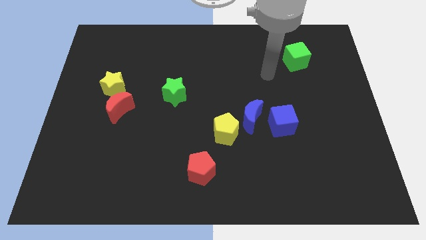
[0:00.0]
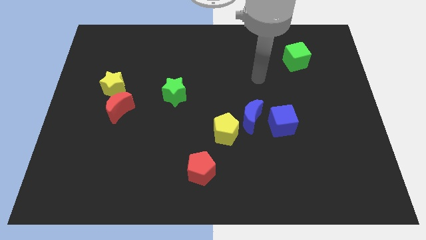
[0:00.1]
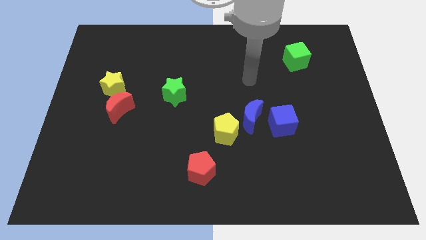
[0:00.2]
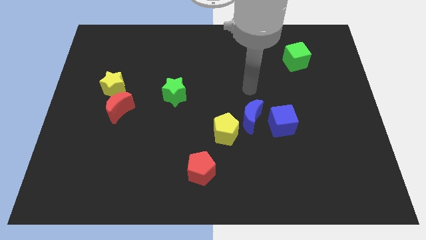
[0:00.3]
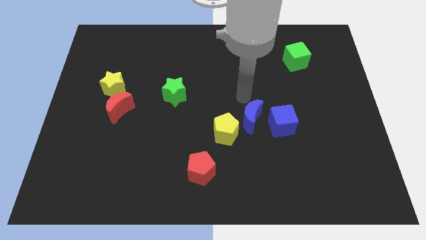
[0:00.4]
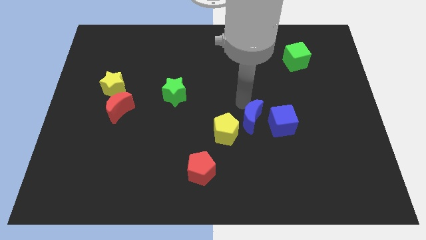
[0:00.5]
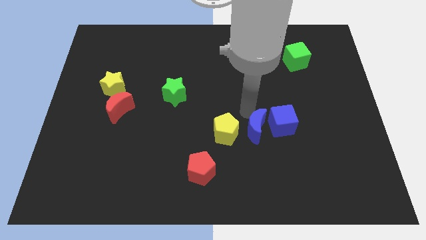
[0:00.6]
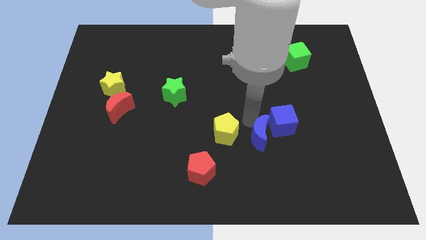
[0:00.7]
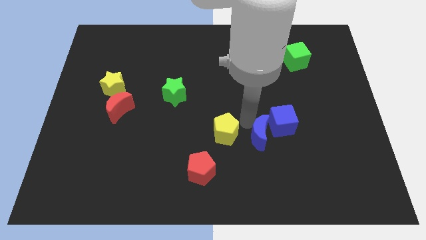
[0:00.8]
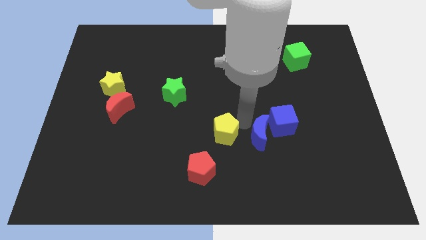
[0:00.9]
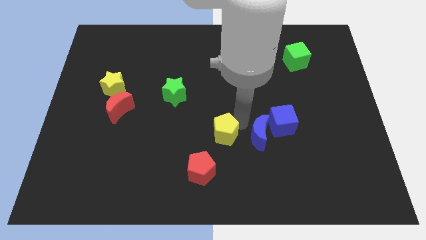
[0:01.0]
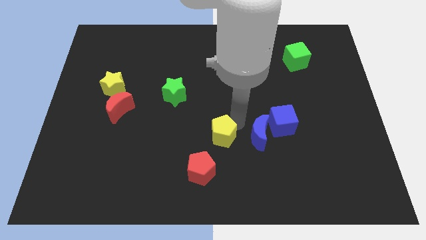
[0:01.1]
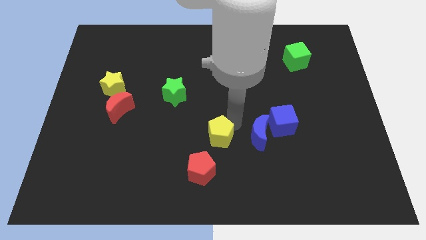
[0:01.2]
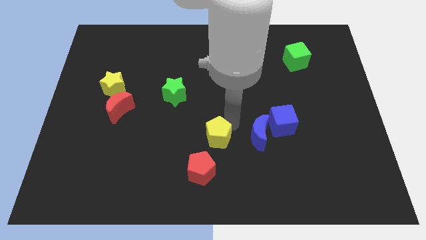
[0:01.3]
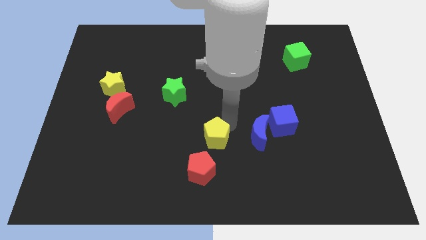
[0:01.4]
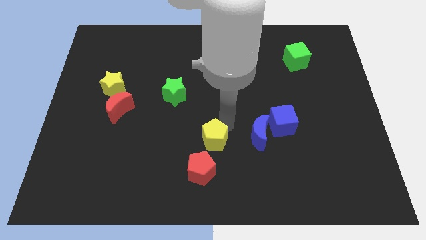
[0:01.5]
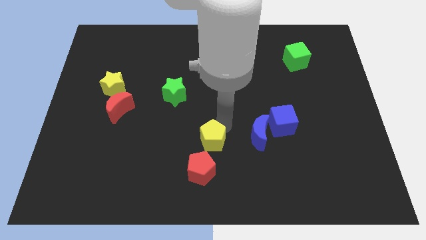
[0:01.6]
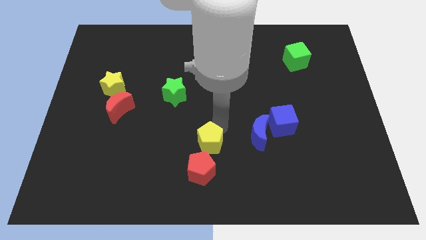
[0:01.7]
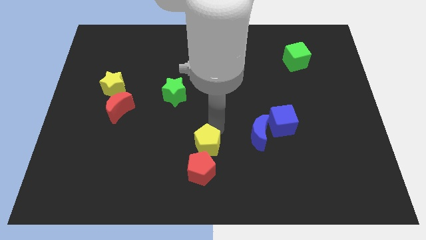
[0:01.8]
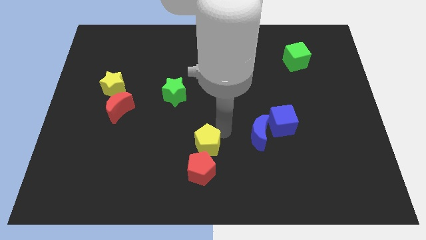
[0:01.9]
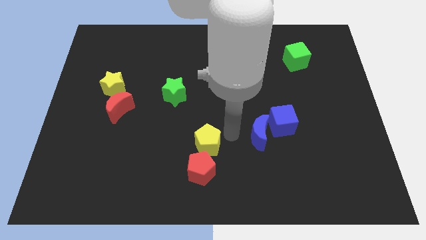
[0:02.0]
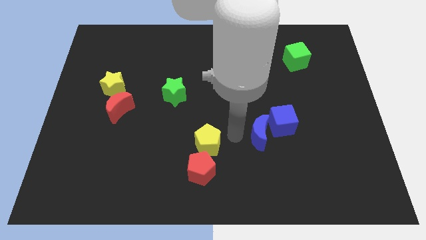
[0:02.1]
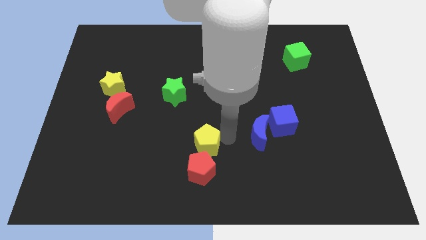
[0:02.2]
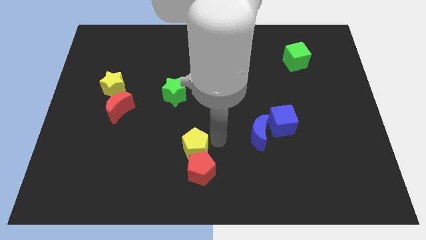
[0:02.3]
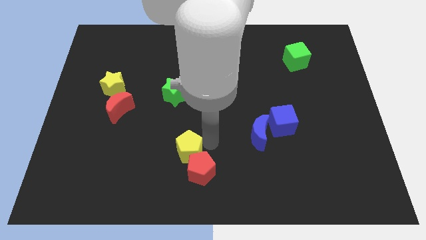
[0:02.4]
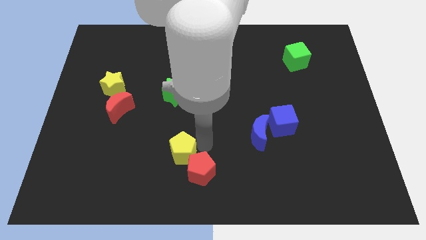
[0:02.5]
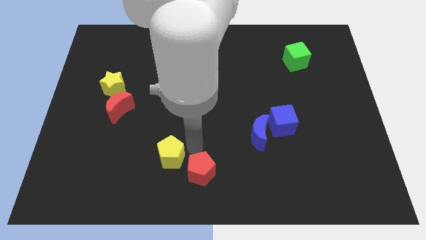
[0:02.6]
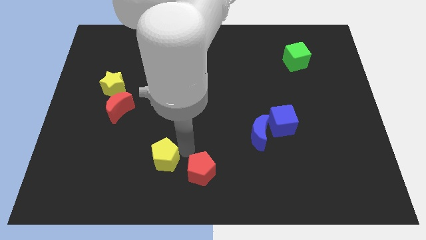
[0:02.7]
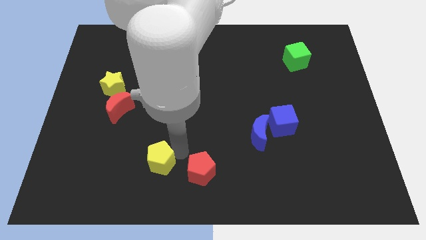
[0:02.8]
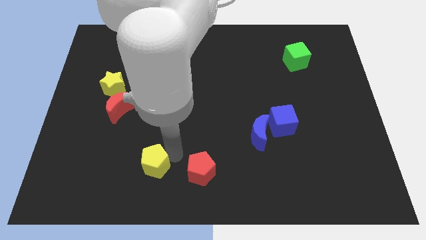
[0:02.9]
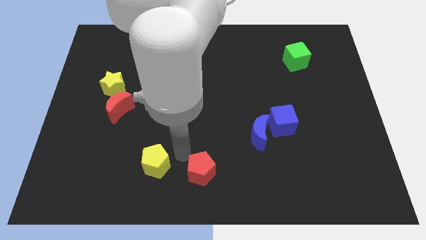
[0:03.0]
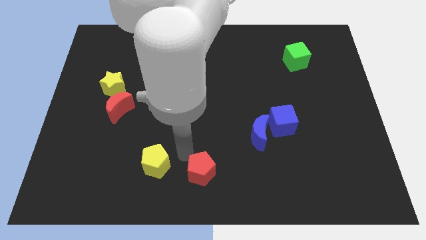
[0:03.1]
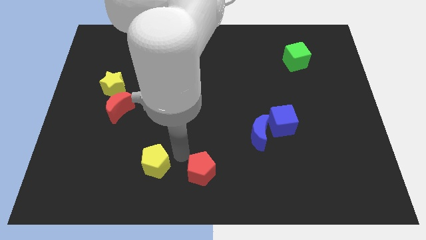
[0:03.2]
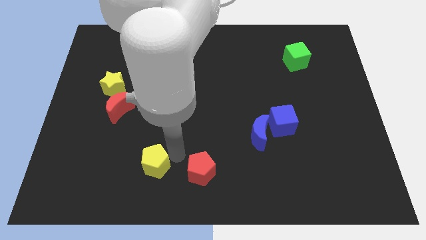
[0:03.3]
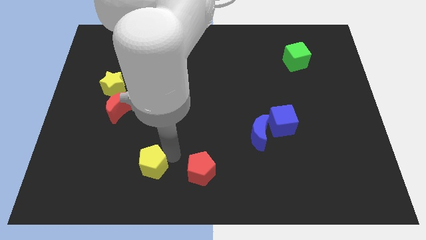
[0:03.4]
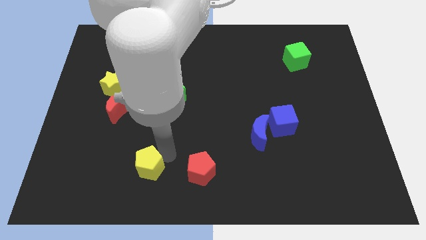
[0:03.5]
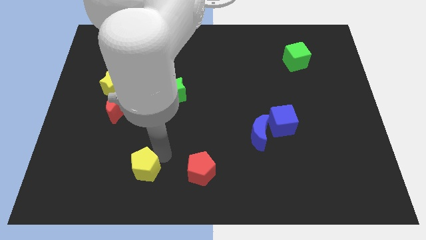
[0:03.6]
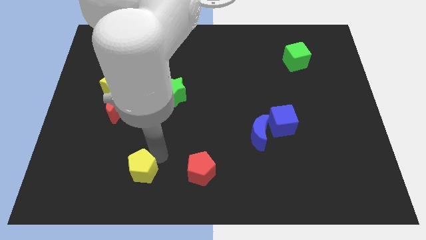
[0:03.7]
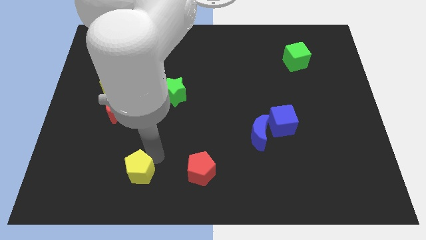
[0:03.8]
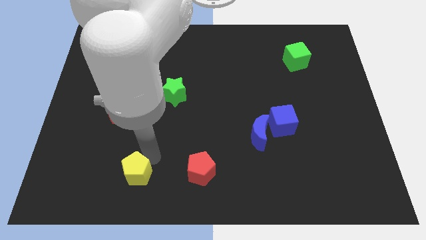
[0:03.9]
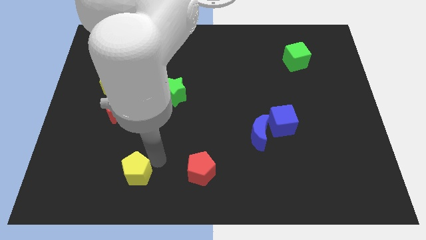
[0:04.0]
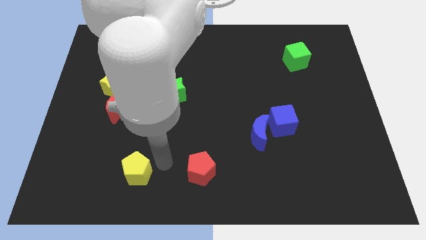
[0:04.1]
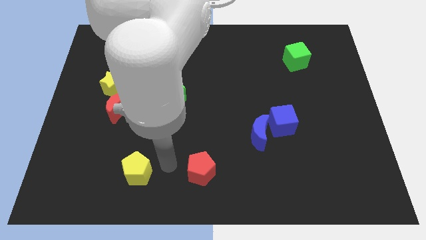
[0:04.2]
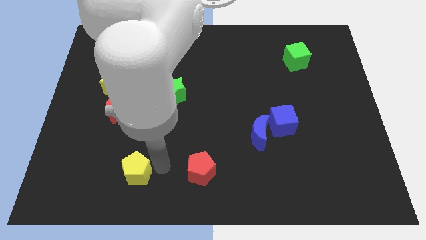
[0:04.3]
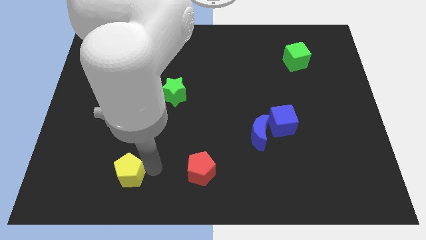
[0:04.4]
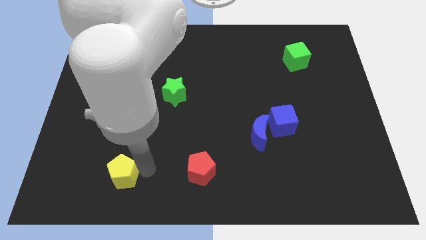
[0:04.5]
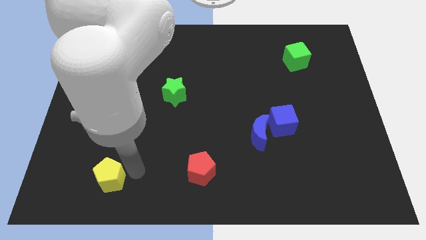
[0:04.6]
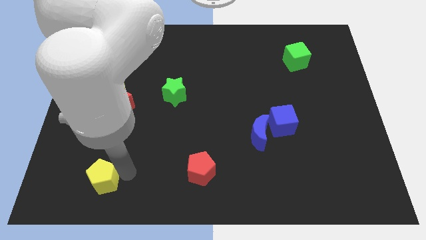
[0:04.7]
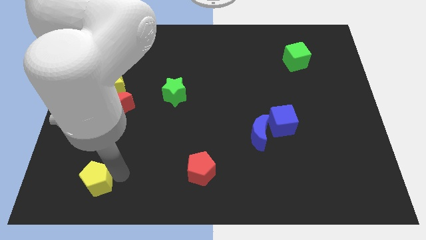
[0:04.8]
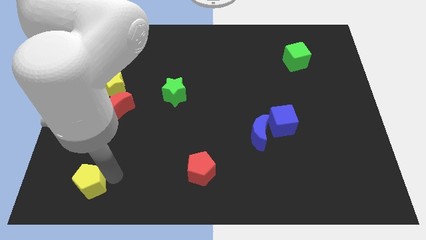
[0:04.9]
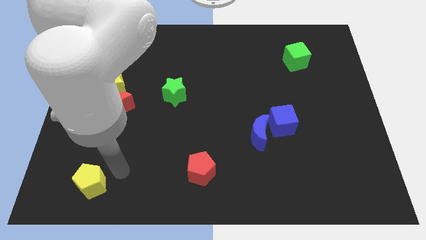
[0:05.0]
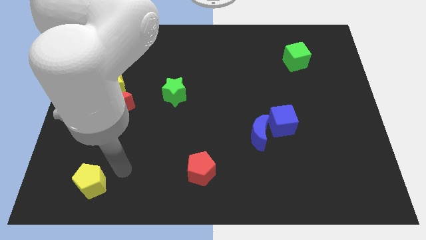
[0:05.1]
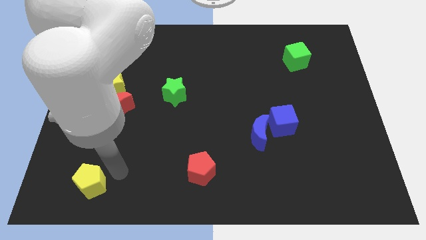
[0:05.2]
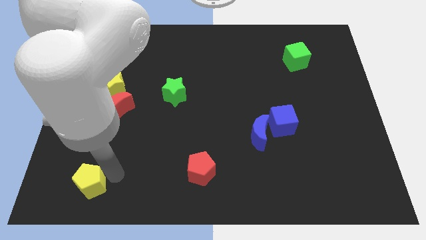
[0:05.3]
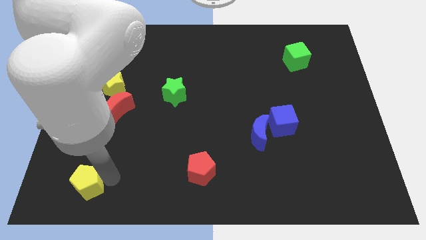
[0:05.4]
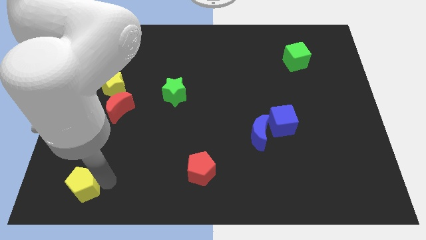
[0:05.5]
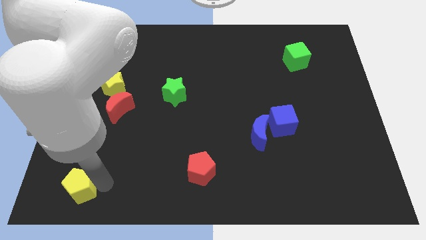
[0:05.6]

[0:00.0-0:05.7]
put the yellow pentagon to the bottom left corner

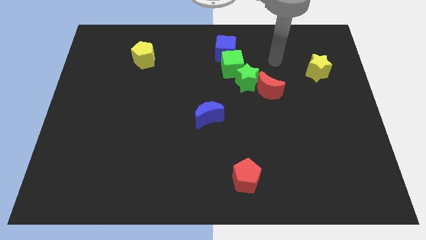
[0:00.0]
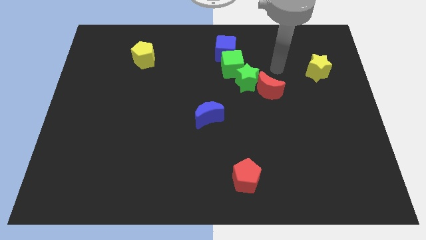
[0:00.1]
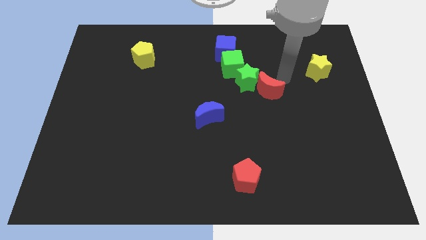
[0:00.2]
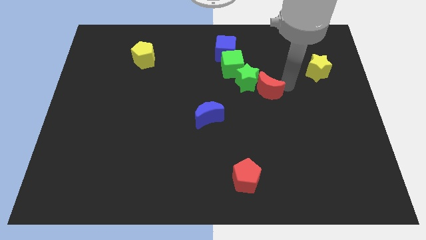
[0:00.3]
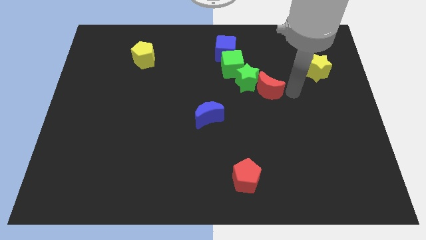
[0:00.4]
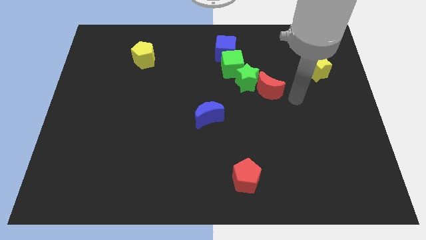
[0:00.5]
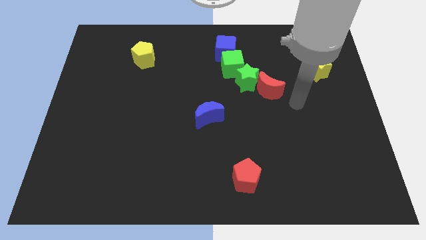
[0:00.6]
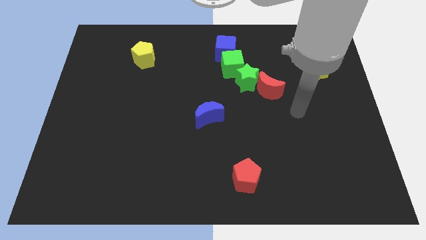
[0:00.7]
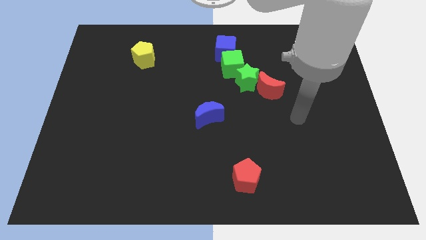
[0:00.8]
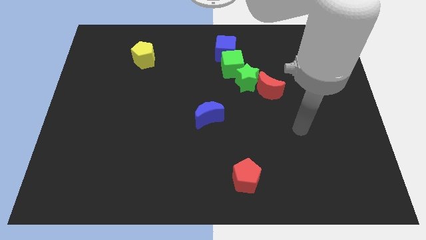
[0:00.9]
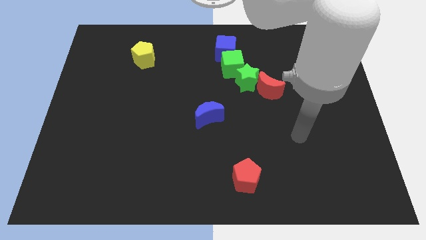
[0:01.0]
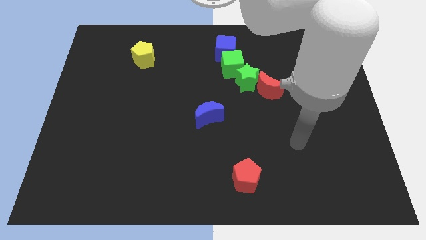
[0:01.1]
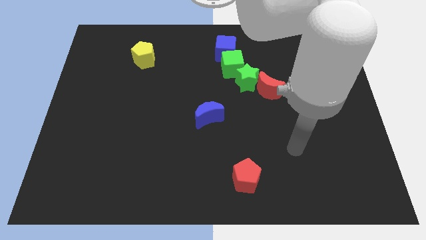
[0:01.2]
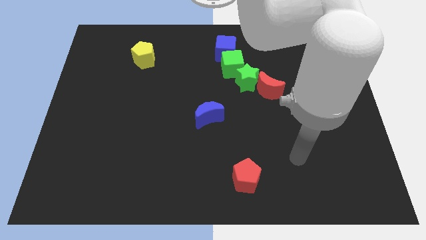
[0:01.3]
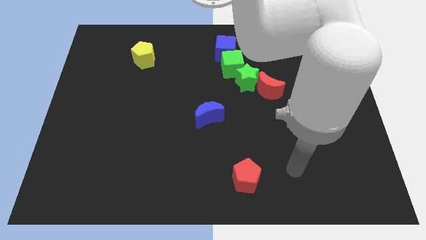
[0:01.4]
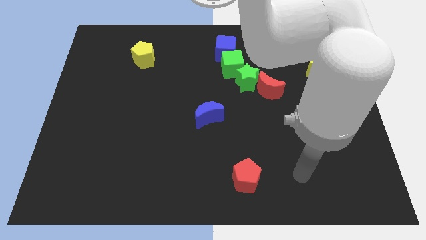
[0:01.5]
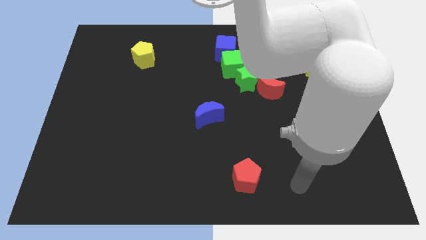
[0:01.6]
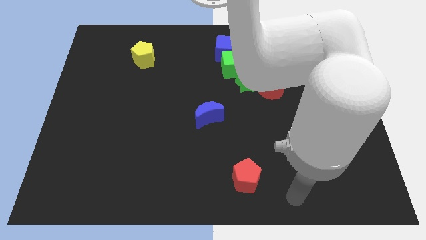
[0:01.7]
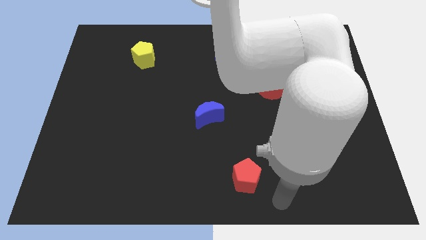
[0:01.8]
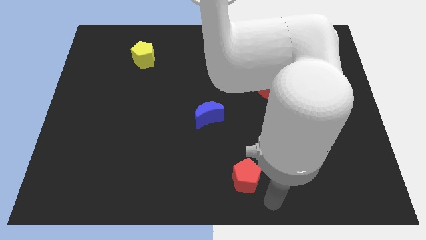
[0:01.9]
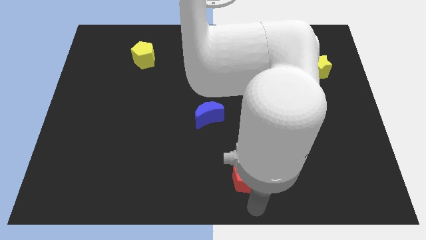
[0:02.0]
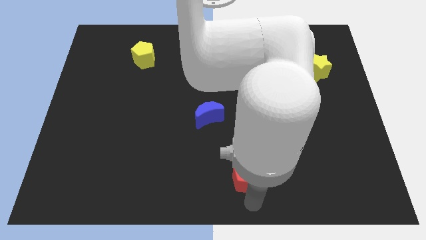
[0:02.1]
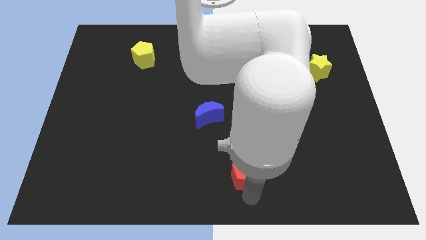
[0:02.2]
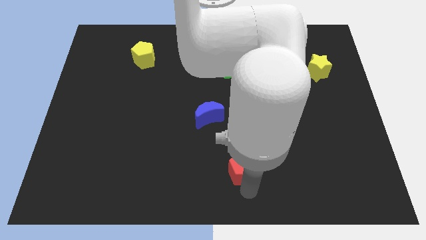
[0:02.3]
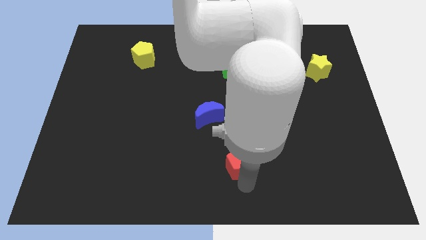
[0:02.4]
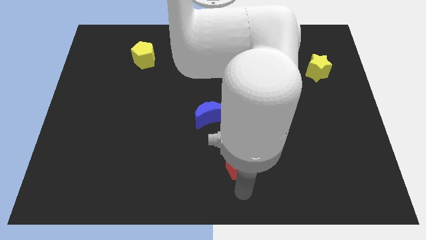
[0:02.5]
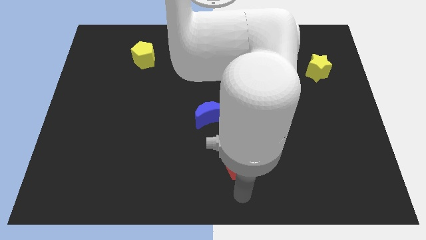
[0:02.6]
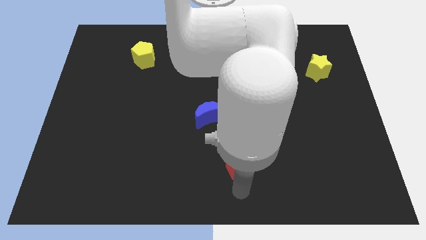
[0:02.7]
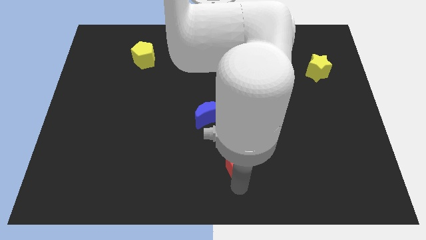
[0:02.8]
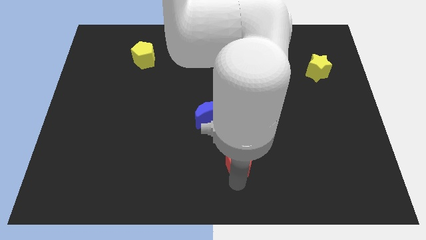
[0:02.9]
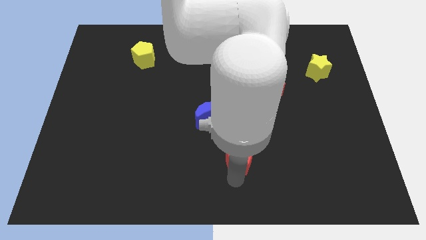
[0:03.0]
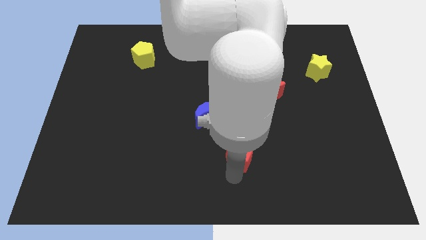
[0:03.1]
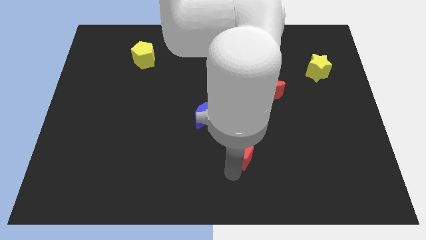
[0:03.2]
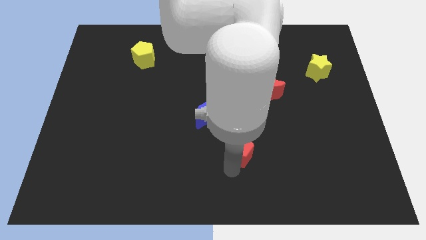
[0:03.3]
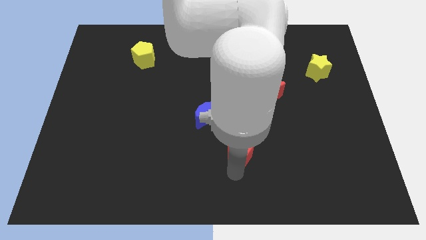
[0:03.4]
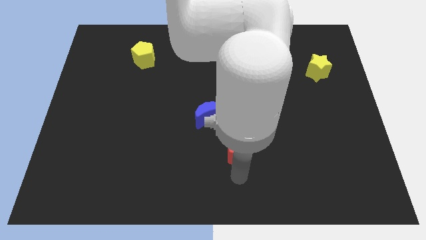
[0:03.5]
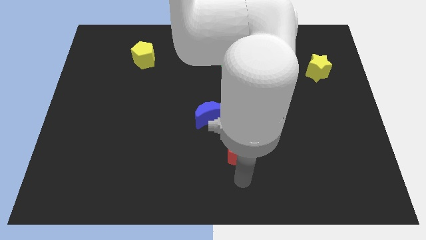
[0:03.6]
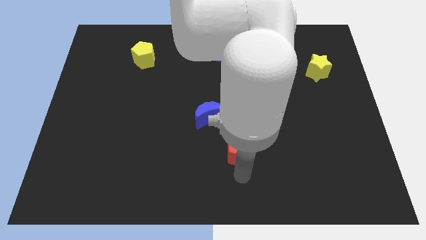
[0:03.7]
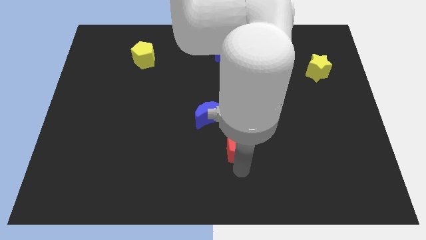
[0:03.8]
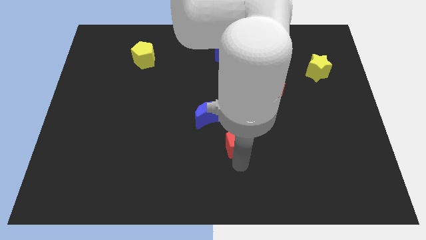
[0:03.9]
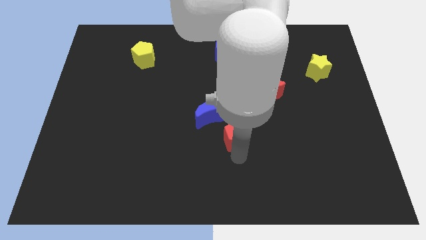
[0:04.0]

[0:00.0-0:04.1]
slide the red pentagon to the middle of the board
